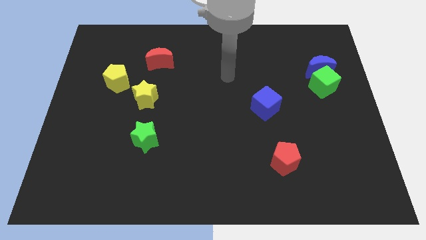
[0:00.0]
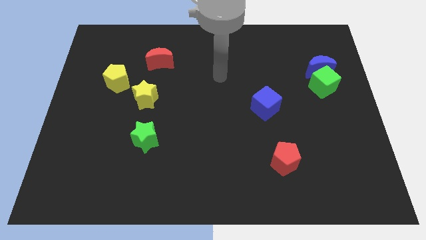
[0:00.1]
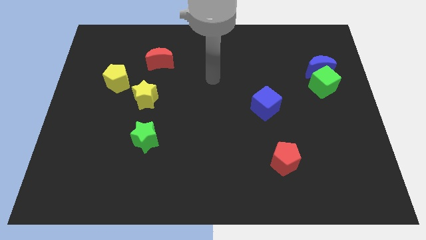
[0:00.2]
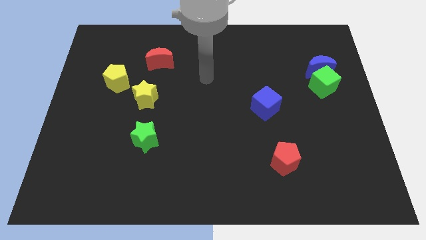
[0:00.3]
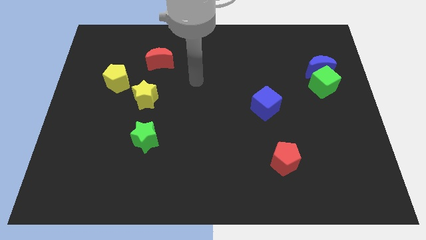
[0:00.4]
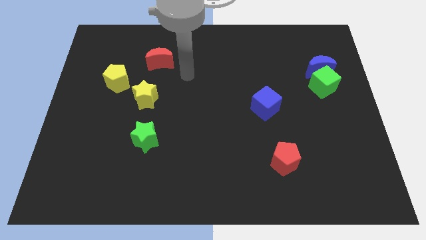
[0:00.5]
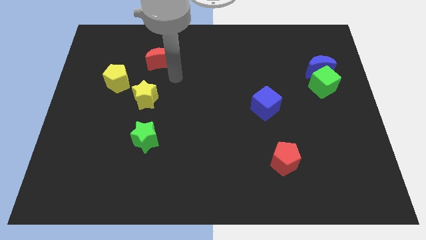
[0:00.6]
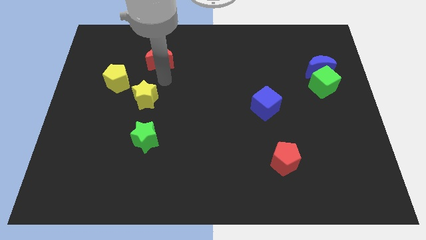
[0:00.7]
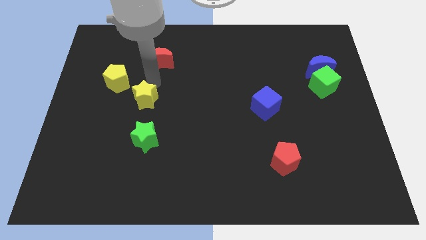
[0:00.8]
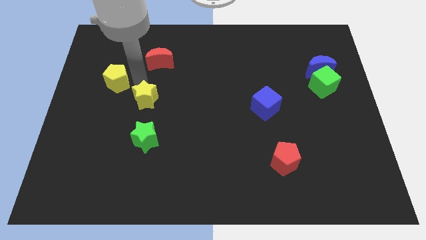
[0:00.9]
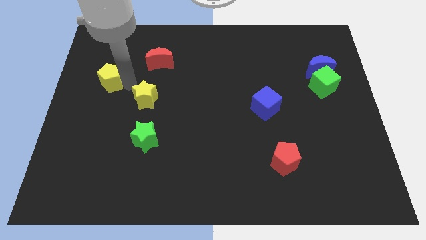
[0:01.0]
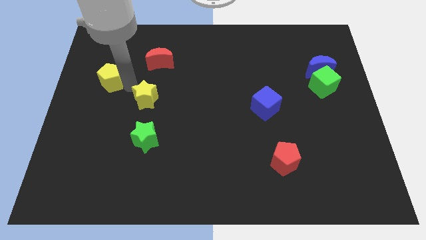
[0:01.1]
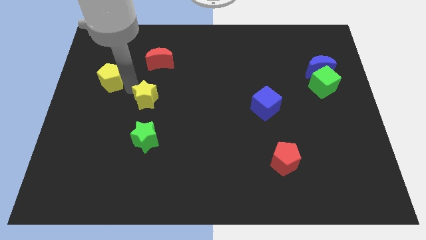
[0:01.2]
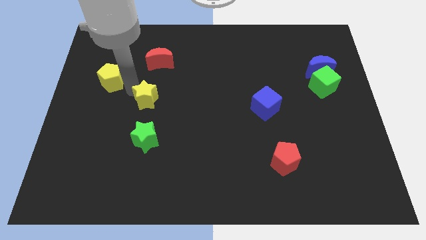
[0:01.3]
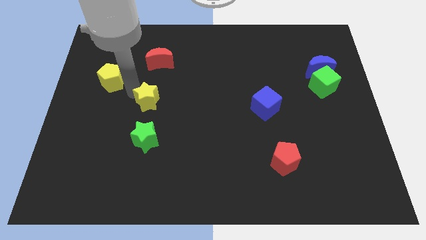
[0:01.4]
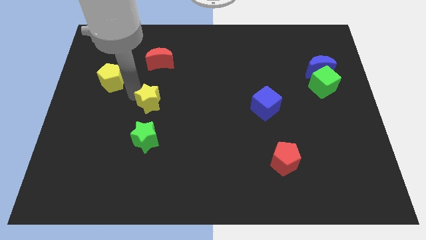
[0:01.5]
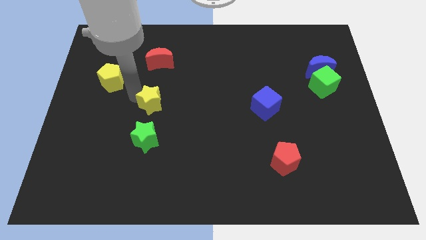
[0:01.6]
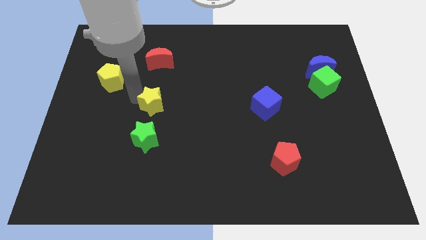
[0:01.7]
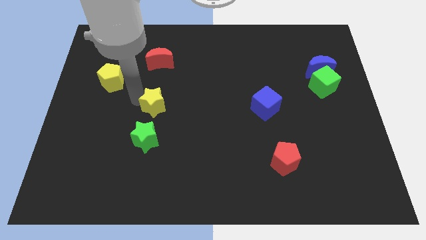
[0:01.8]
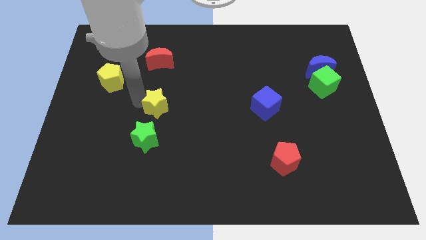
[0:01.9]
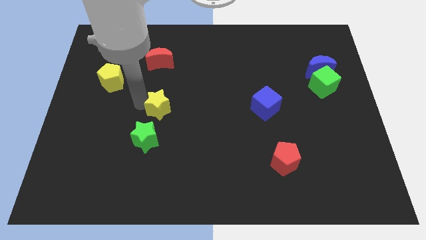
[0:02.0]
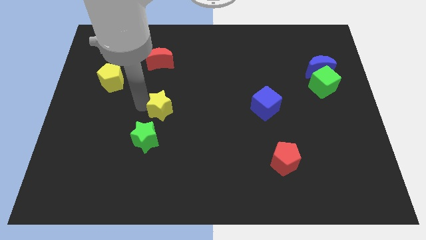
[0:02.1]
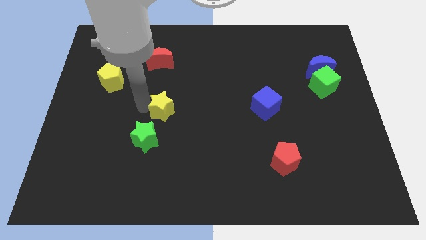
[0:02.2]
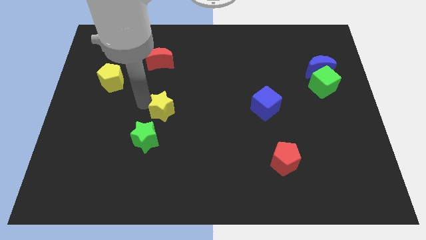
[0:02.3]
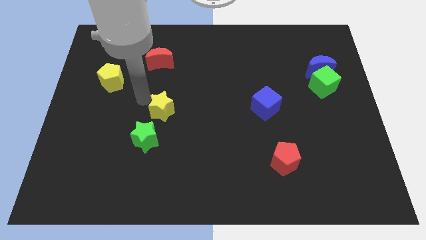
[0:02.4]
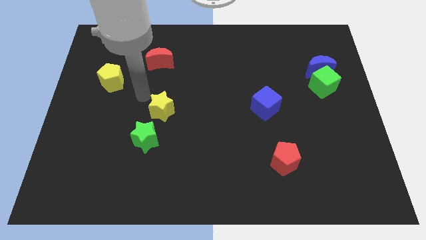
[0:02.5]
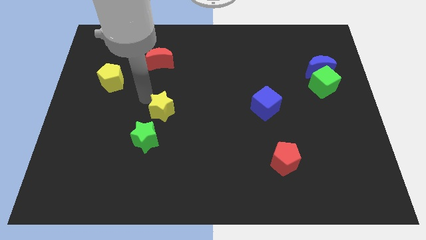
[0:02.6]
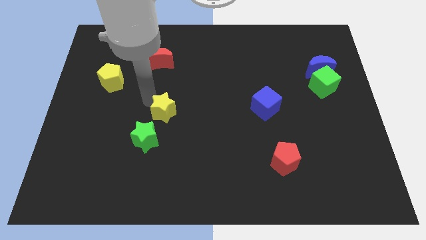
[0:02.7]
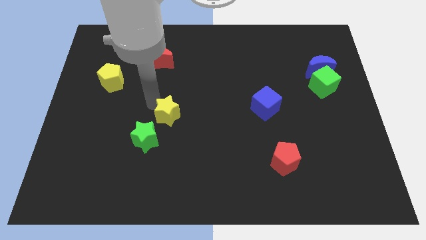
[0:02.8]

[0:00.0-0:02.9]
slide the yellow star downwards and then to the right a bit

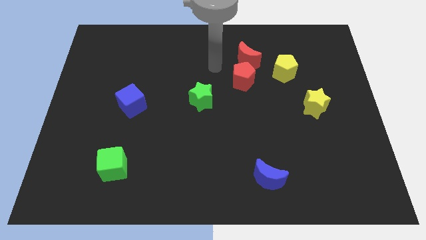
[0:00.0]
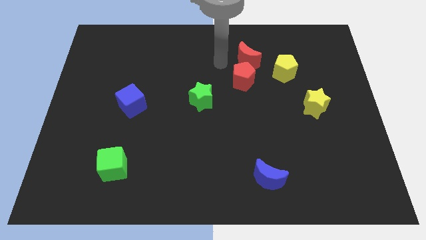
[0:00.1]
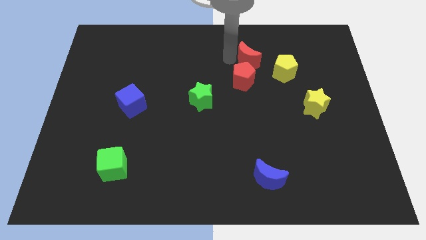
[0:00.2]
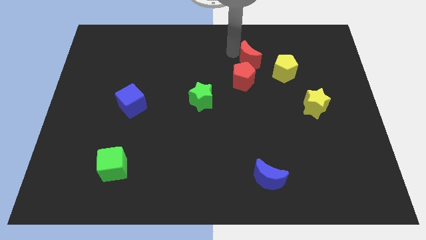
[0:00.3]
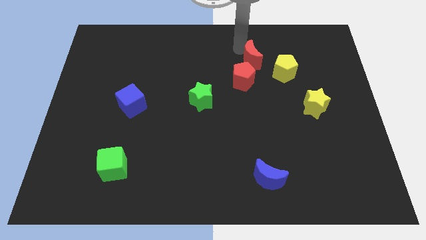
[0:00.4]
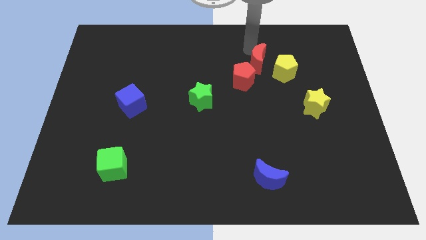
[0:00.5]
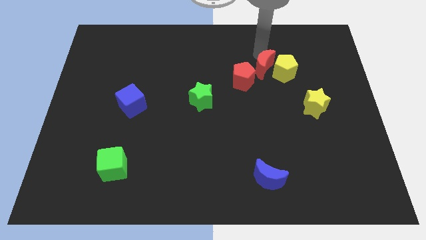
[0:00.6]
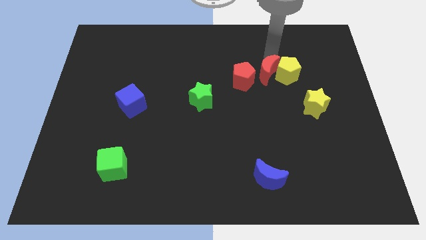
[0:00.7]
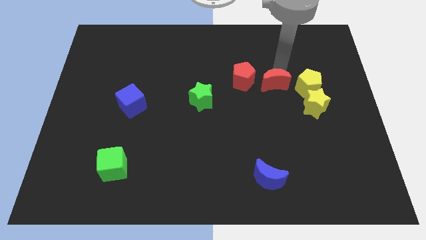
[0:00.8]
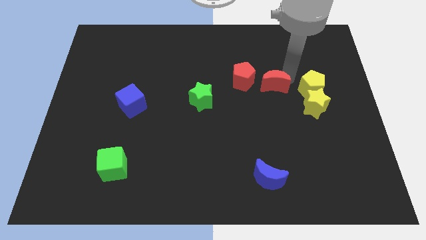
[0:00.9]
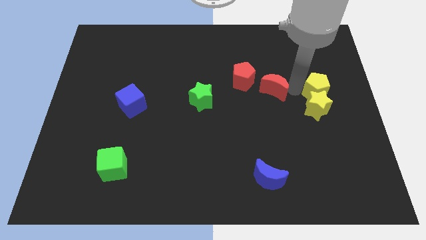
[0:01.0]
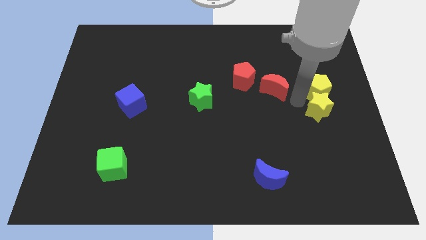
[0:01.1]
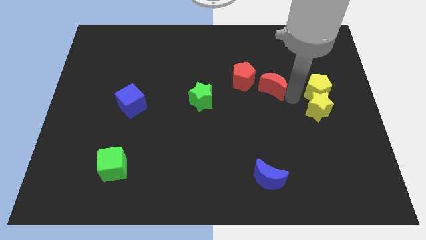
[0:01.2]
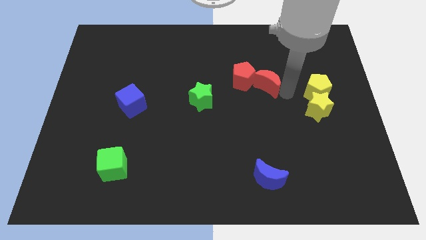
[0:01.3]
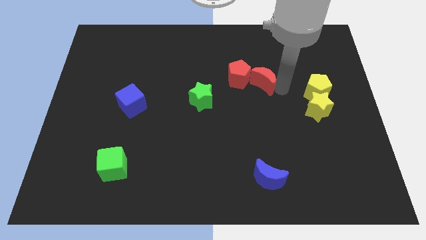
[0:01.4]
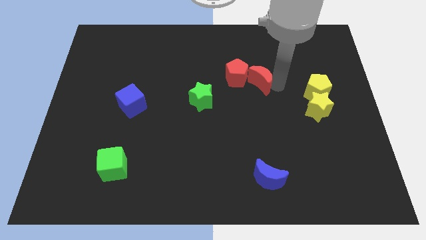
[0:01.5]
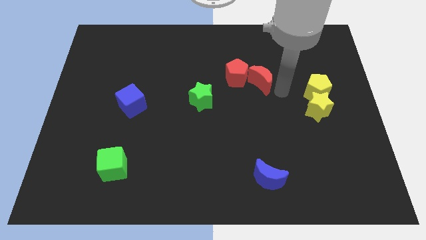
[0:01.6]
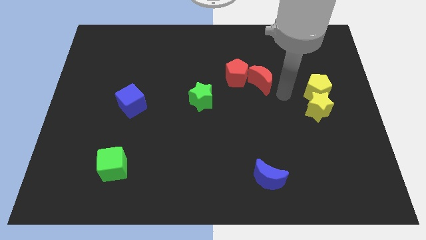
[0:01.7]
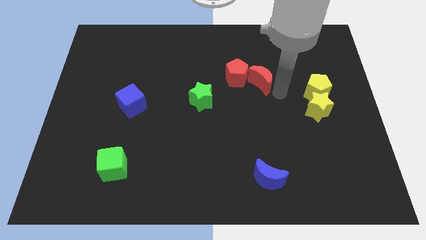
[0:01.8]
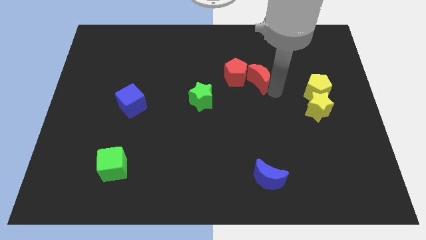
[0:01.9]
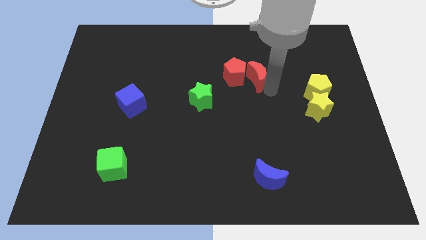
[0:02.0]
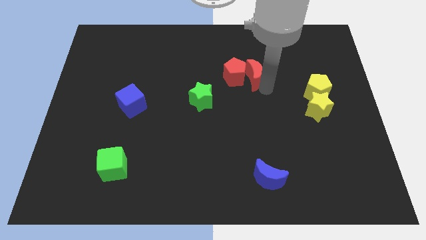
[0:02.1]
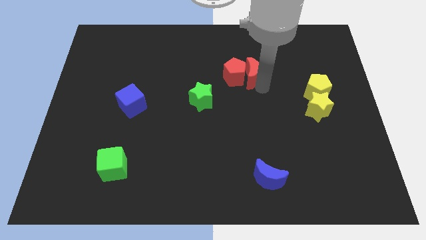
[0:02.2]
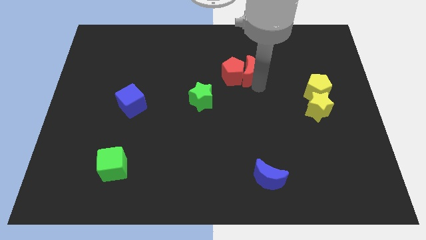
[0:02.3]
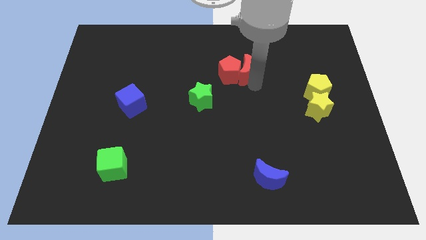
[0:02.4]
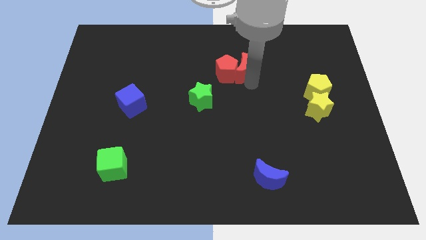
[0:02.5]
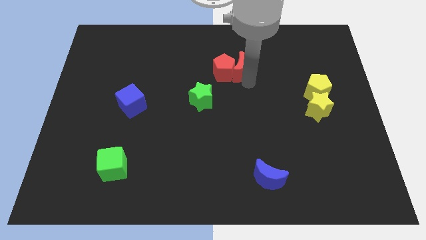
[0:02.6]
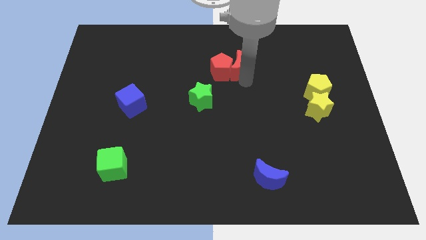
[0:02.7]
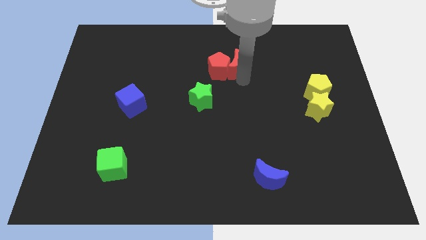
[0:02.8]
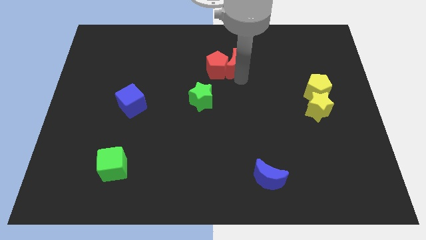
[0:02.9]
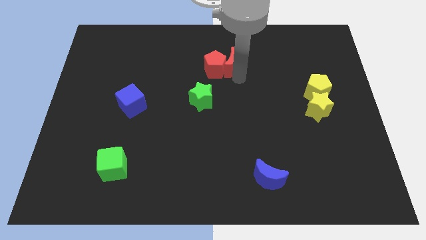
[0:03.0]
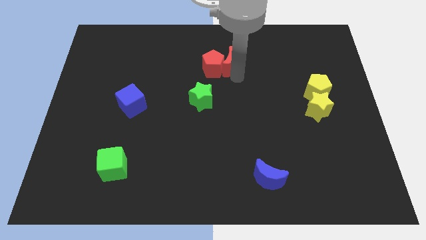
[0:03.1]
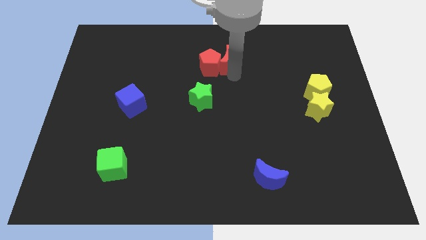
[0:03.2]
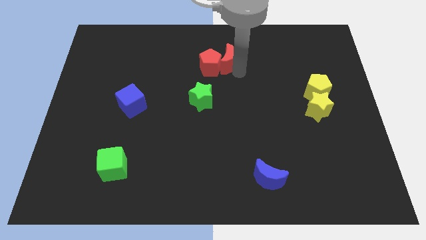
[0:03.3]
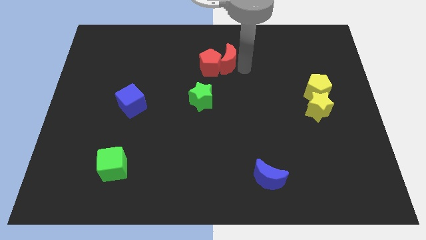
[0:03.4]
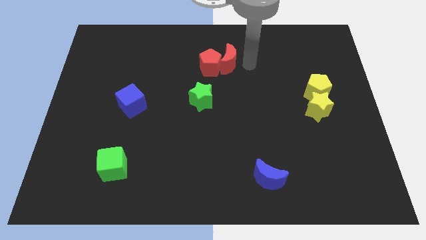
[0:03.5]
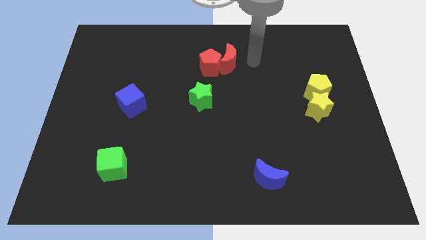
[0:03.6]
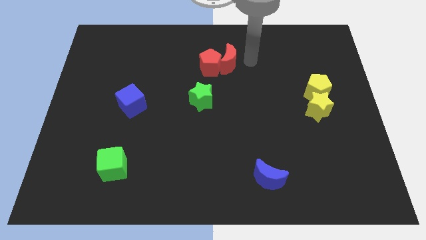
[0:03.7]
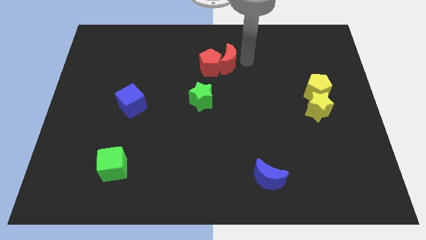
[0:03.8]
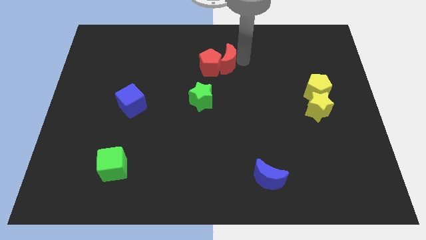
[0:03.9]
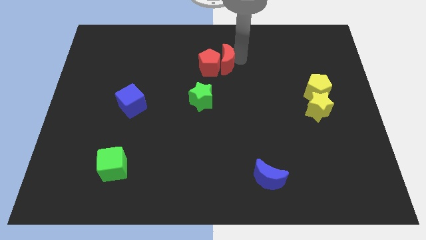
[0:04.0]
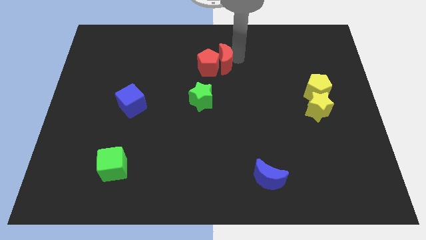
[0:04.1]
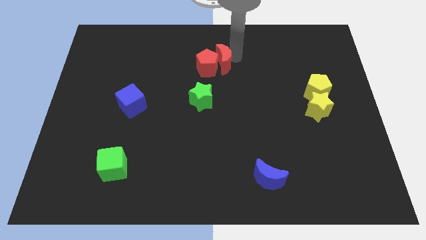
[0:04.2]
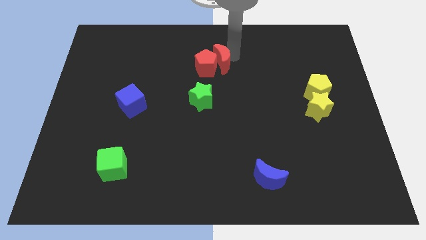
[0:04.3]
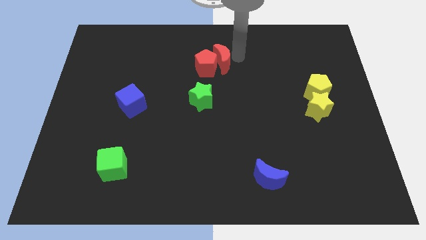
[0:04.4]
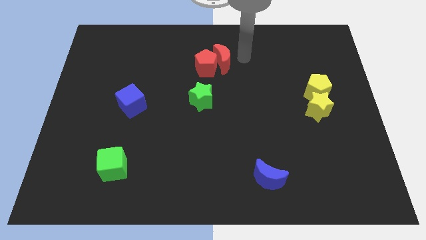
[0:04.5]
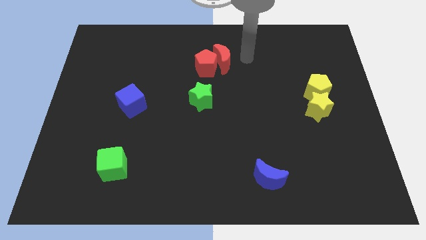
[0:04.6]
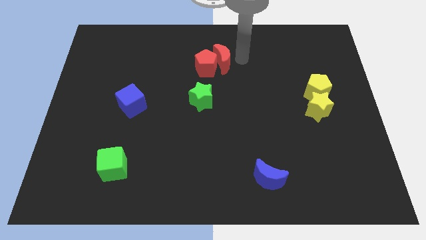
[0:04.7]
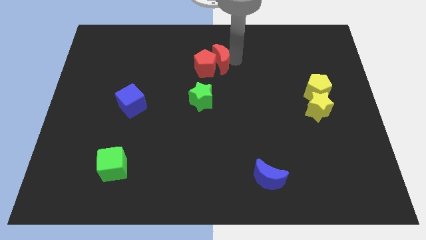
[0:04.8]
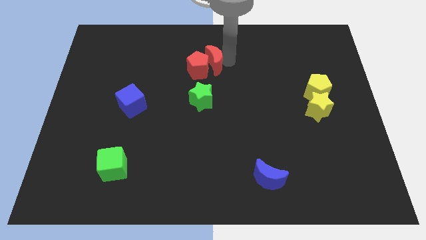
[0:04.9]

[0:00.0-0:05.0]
slide the red moon a little to the left
